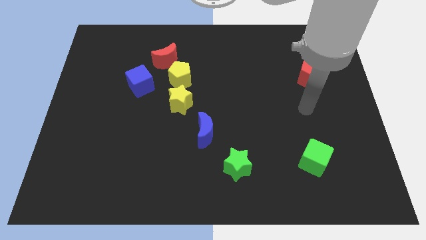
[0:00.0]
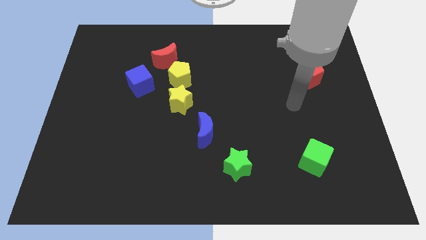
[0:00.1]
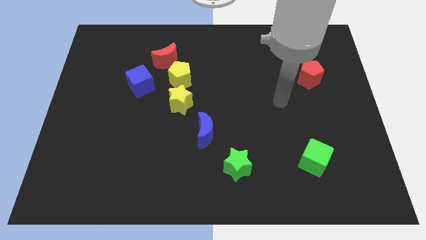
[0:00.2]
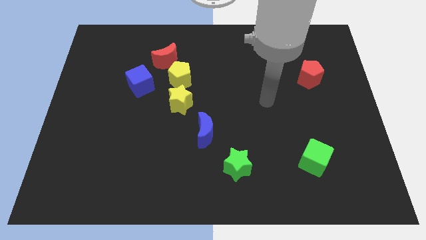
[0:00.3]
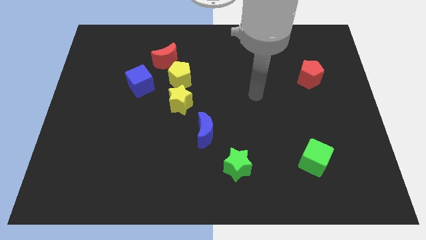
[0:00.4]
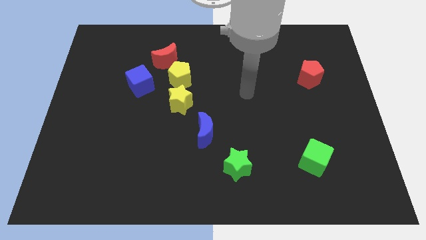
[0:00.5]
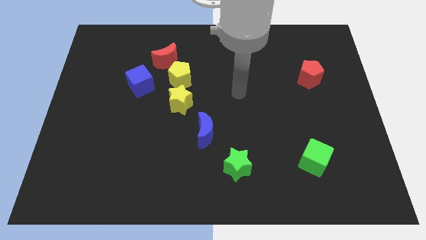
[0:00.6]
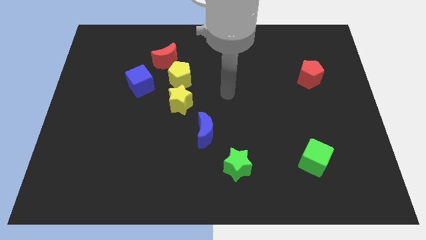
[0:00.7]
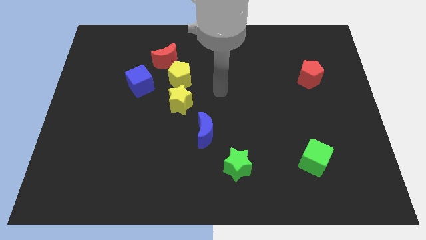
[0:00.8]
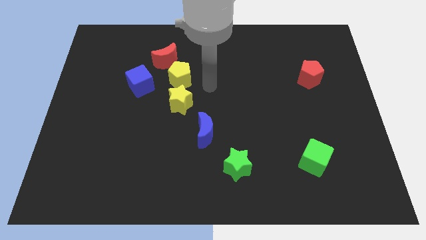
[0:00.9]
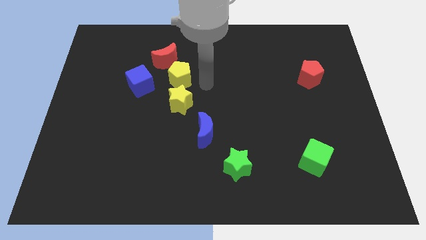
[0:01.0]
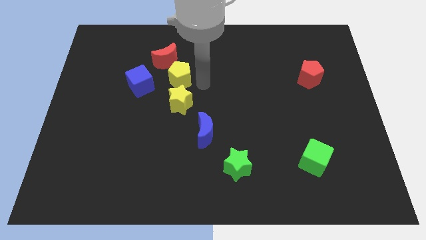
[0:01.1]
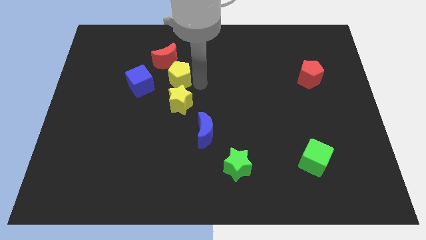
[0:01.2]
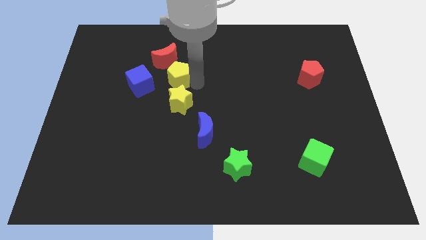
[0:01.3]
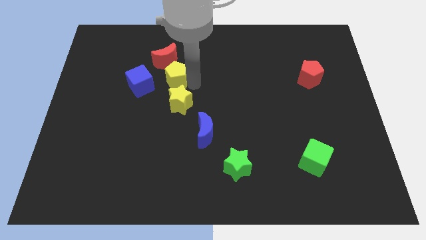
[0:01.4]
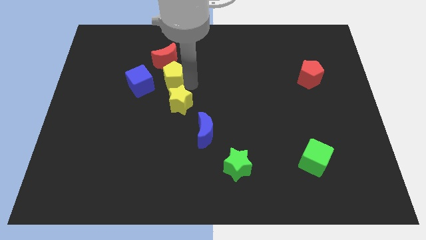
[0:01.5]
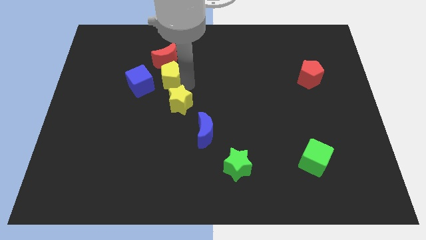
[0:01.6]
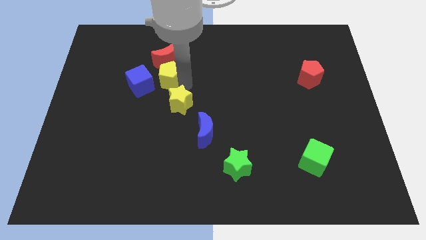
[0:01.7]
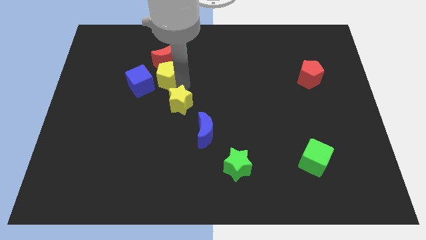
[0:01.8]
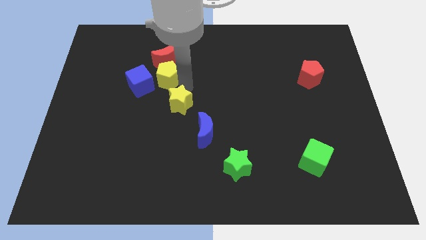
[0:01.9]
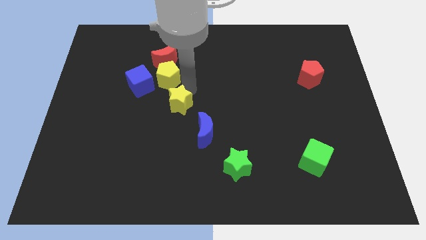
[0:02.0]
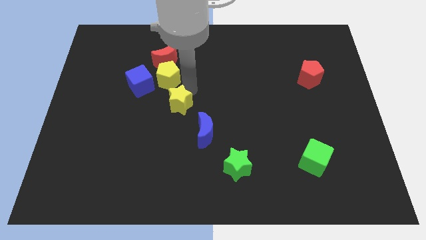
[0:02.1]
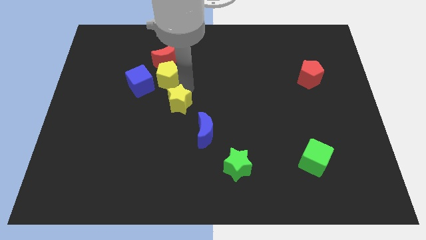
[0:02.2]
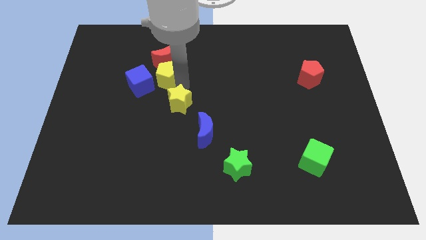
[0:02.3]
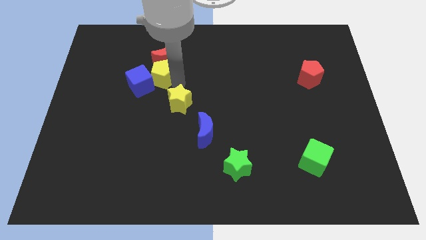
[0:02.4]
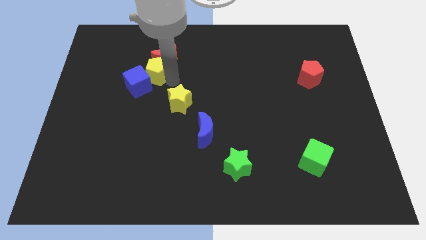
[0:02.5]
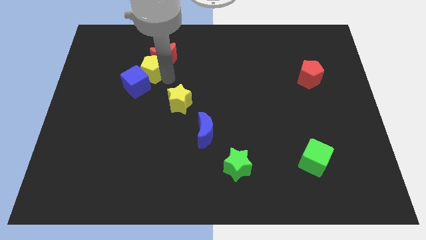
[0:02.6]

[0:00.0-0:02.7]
move the yellow pentagon to the left somewhat

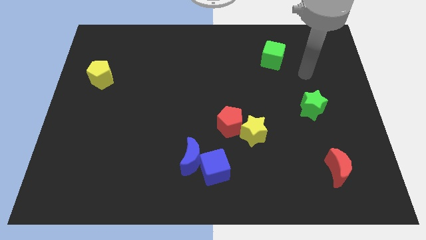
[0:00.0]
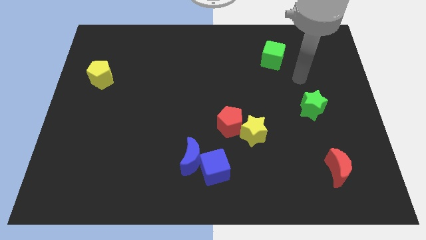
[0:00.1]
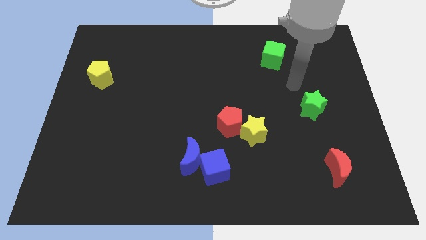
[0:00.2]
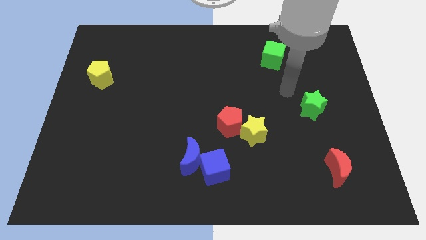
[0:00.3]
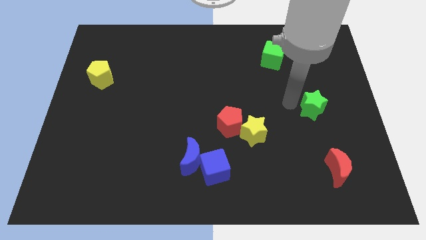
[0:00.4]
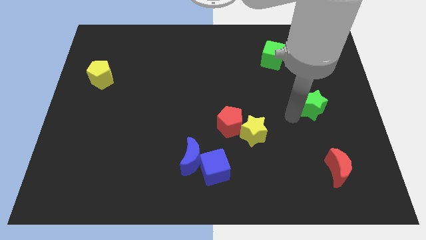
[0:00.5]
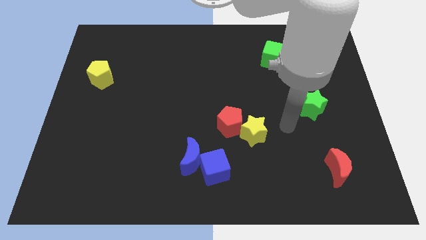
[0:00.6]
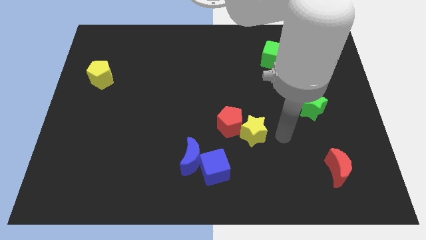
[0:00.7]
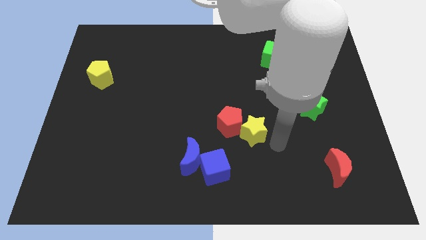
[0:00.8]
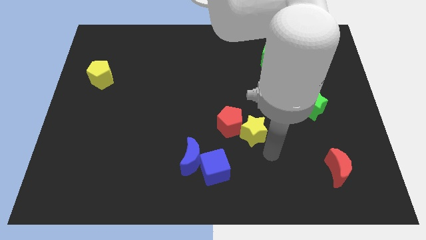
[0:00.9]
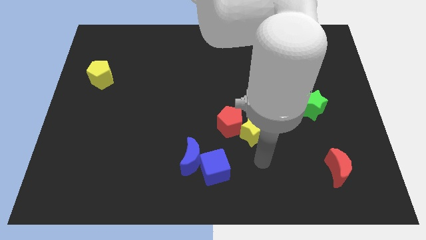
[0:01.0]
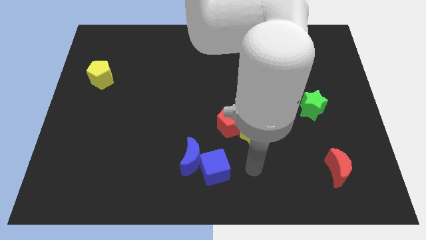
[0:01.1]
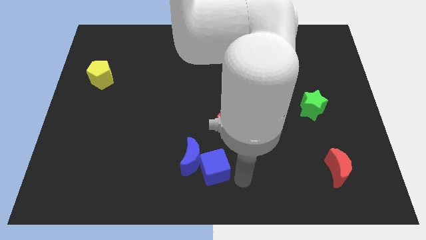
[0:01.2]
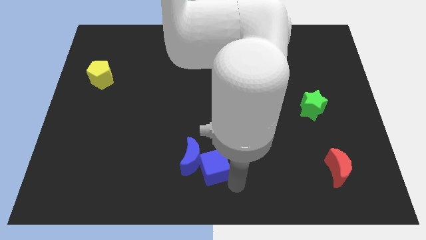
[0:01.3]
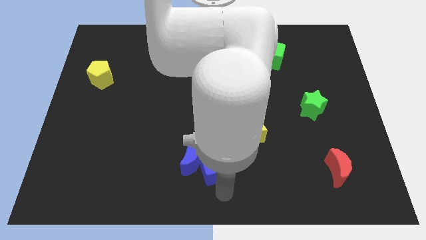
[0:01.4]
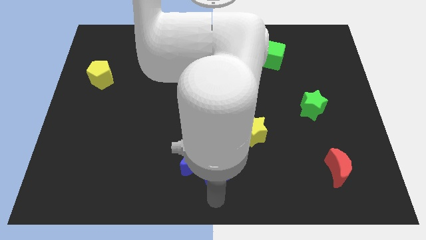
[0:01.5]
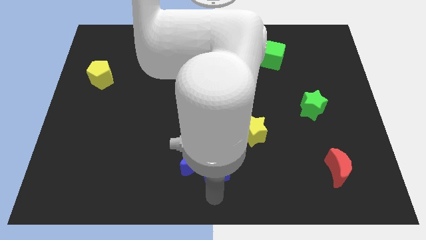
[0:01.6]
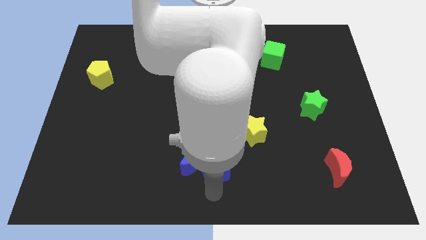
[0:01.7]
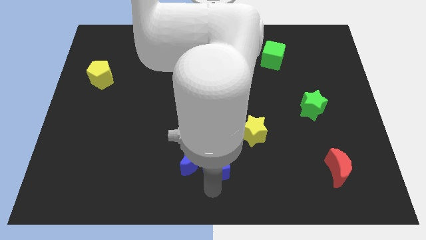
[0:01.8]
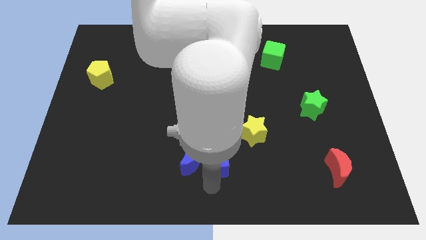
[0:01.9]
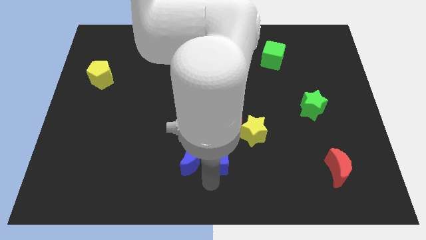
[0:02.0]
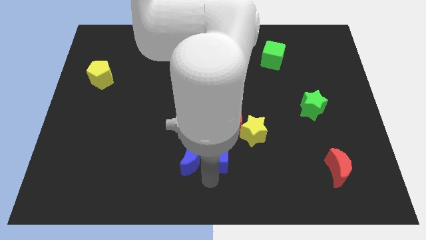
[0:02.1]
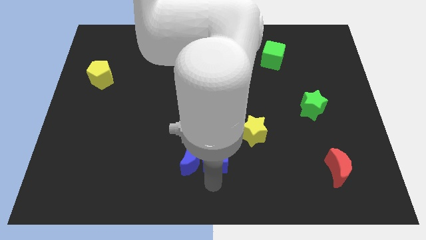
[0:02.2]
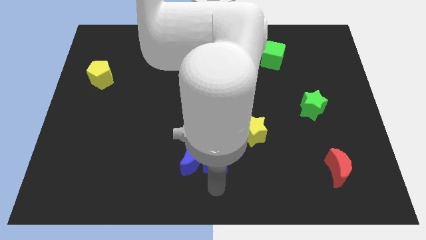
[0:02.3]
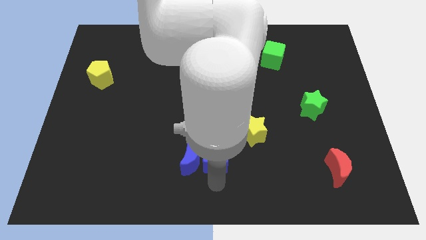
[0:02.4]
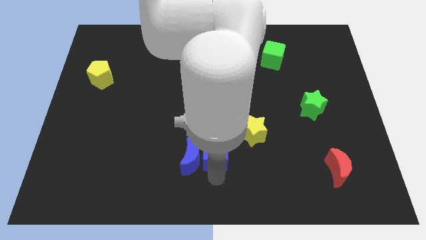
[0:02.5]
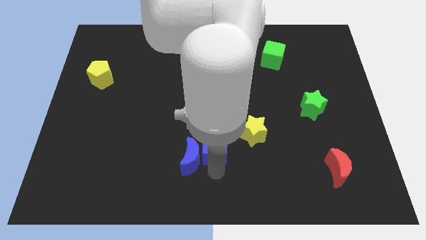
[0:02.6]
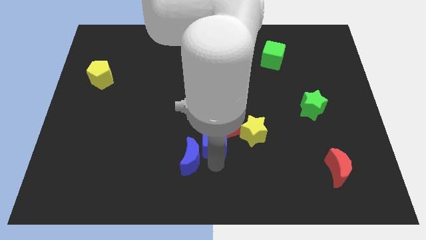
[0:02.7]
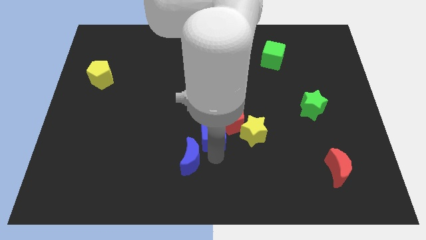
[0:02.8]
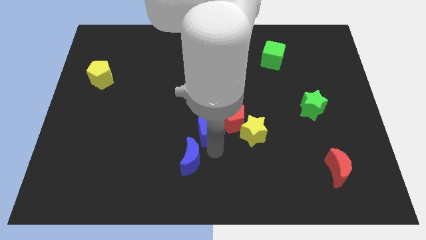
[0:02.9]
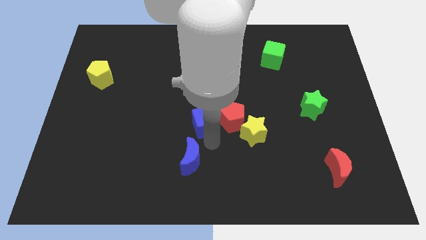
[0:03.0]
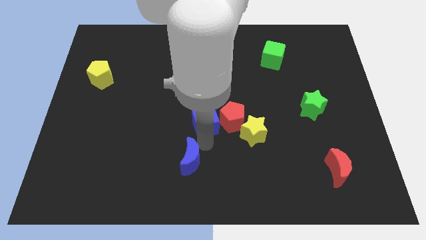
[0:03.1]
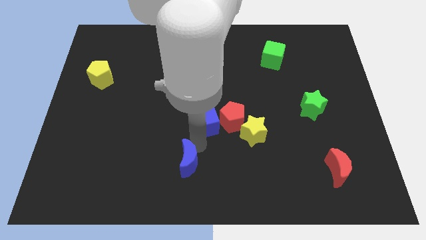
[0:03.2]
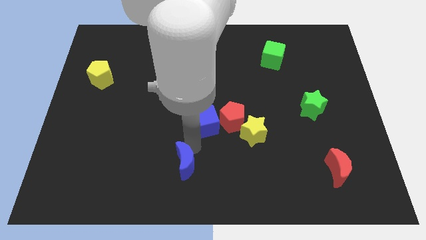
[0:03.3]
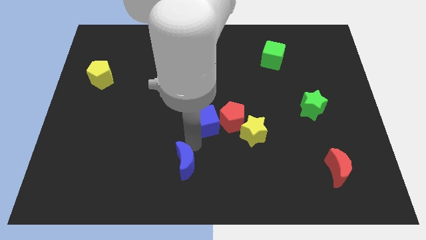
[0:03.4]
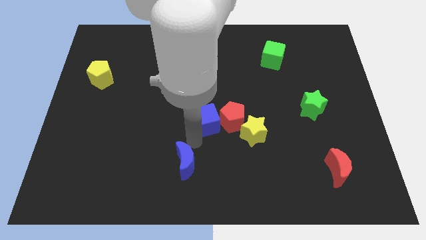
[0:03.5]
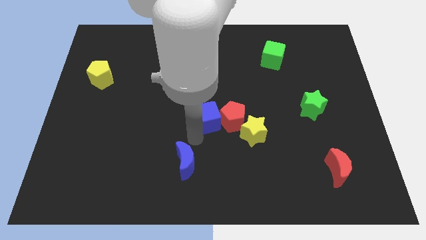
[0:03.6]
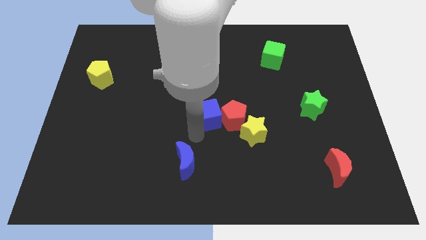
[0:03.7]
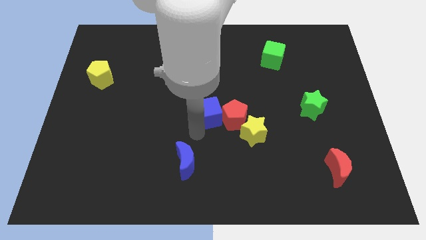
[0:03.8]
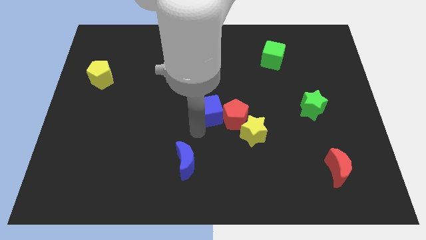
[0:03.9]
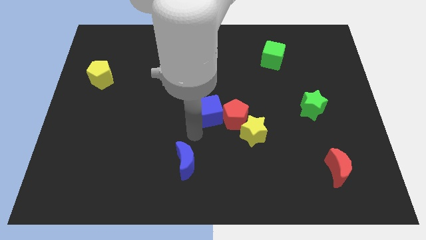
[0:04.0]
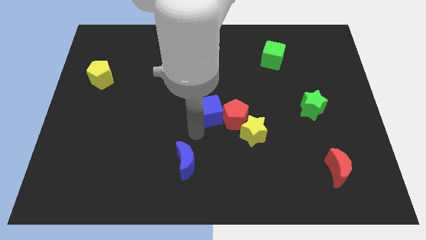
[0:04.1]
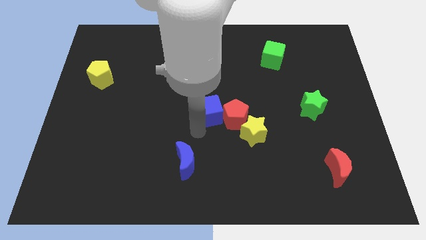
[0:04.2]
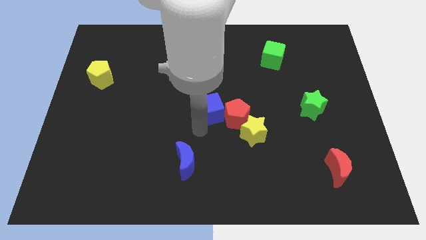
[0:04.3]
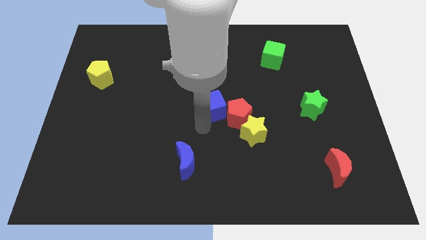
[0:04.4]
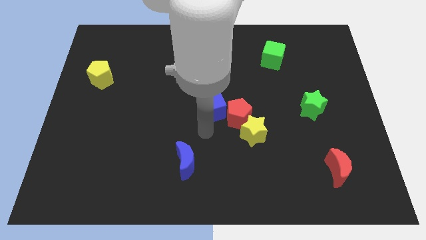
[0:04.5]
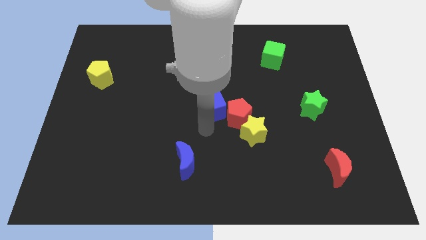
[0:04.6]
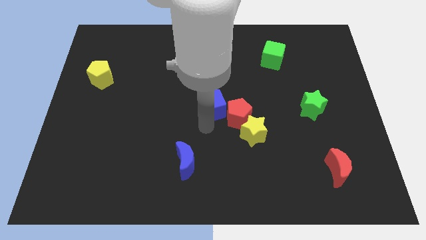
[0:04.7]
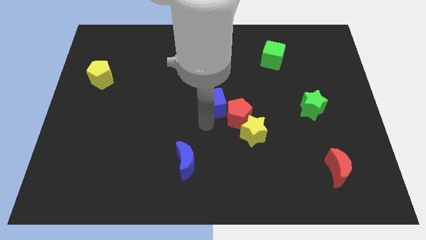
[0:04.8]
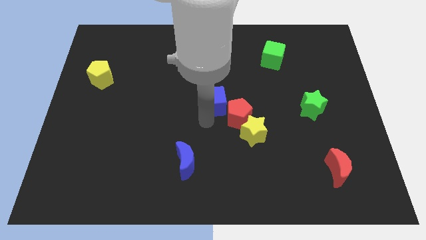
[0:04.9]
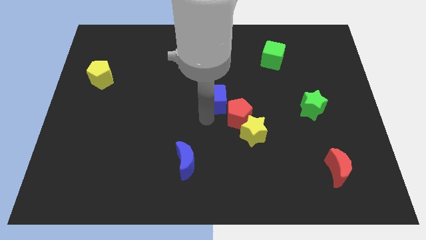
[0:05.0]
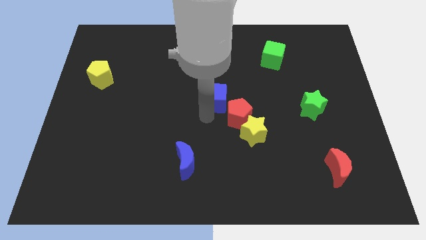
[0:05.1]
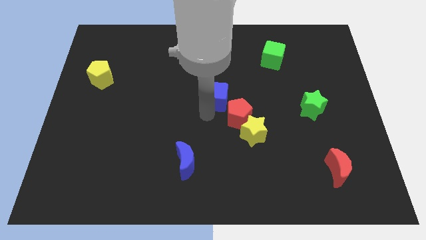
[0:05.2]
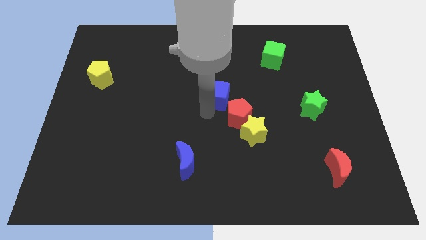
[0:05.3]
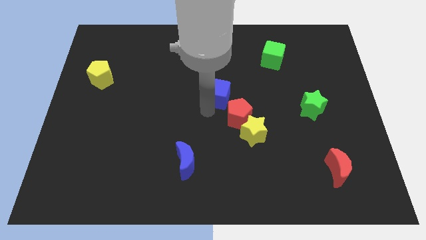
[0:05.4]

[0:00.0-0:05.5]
slide the blue cube up
